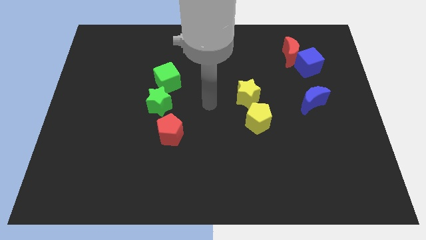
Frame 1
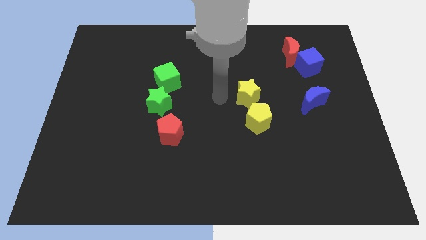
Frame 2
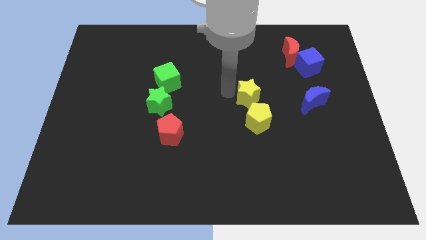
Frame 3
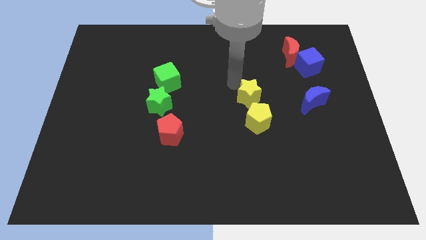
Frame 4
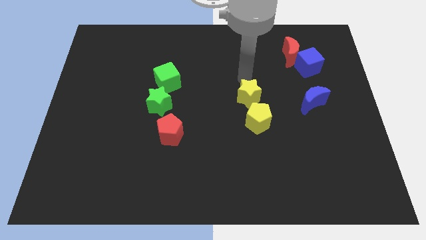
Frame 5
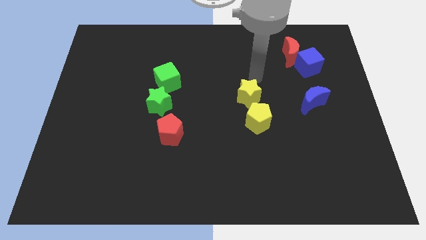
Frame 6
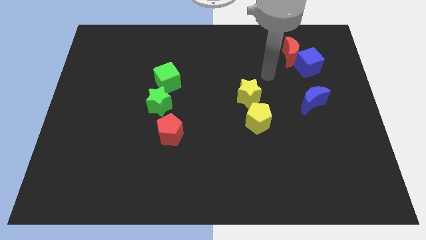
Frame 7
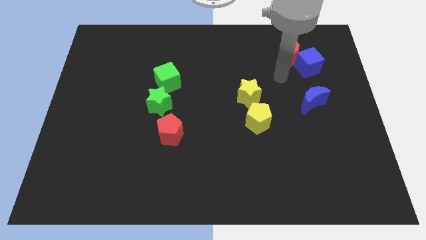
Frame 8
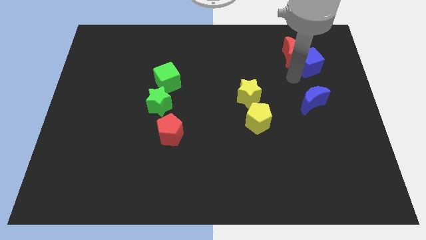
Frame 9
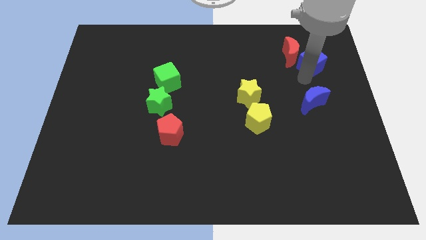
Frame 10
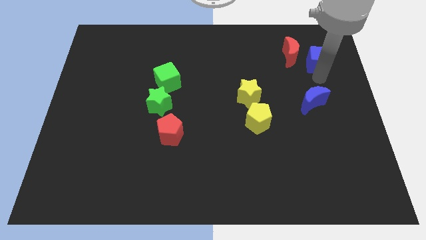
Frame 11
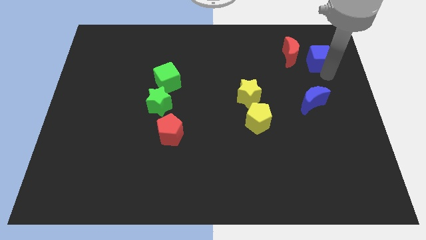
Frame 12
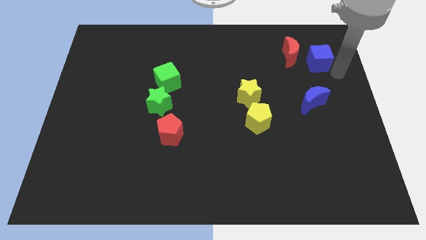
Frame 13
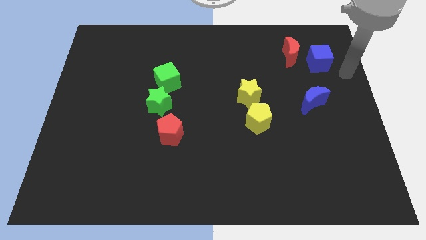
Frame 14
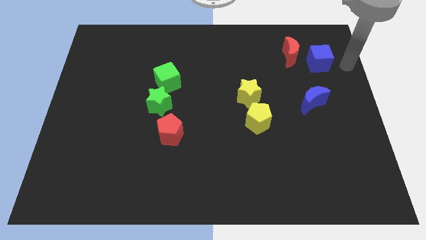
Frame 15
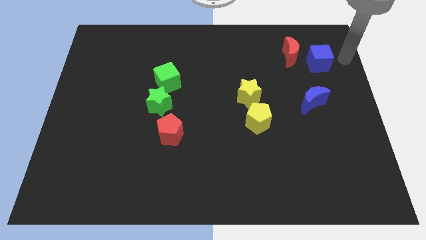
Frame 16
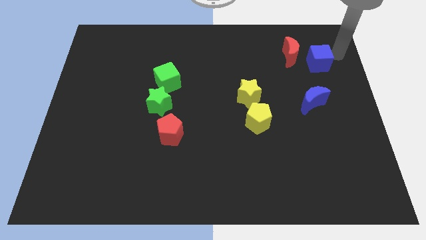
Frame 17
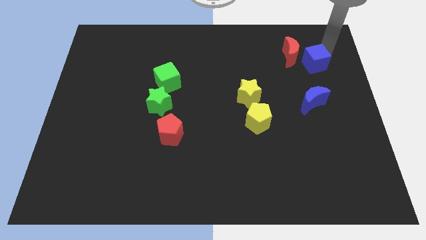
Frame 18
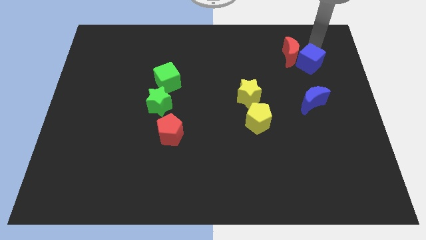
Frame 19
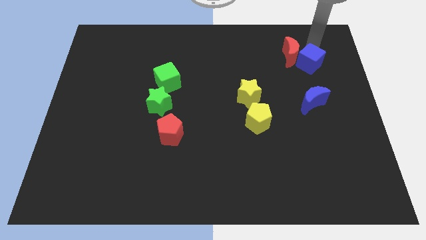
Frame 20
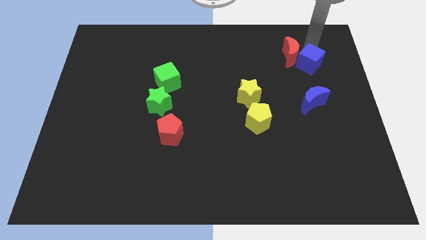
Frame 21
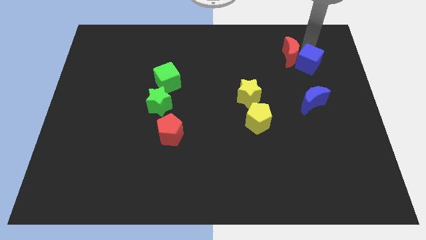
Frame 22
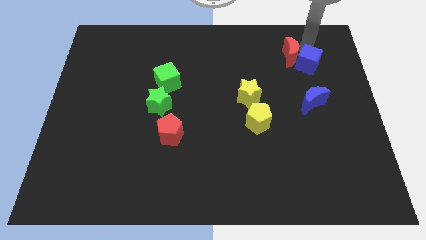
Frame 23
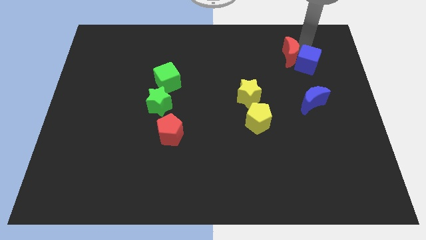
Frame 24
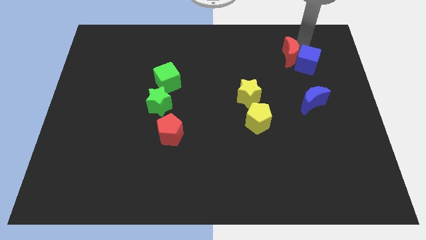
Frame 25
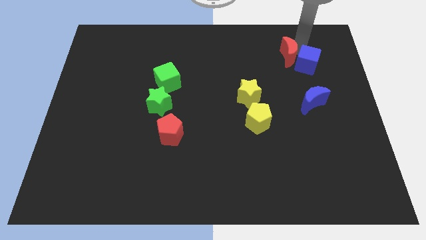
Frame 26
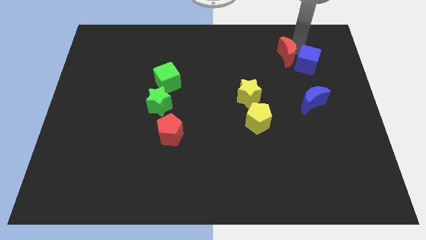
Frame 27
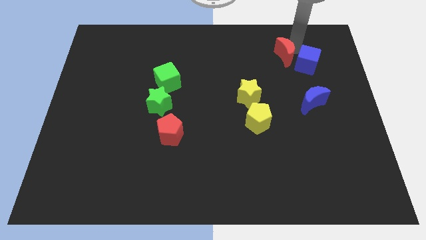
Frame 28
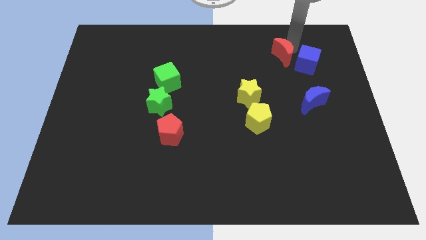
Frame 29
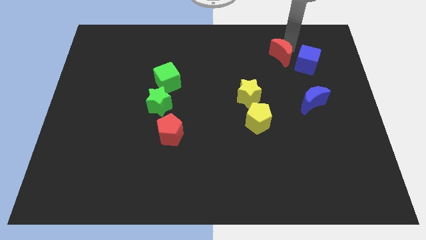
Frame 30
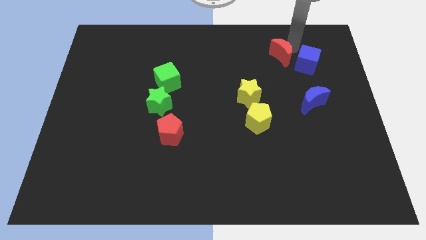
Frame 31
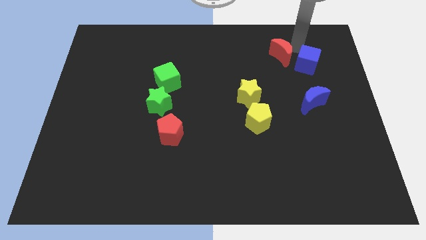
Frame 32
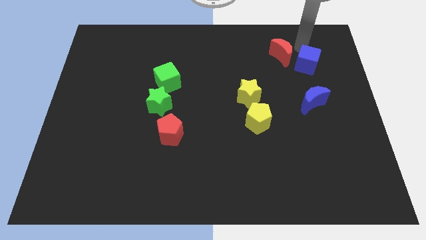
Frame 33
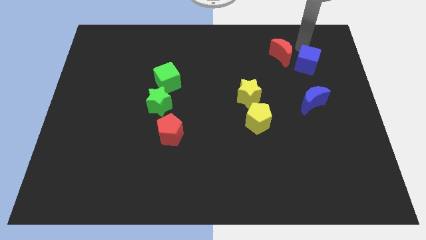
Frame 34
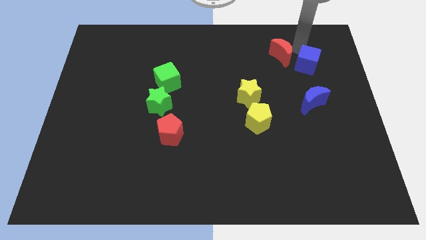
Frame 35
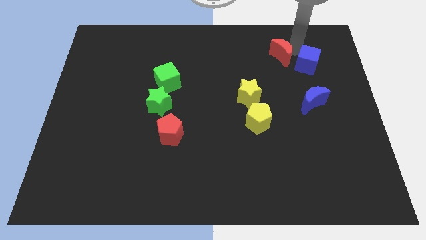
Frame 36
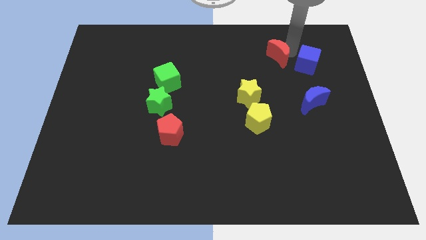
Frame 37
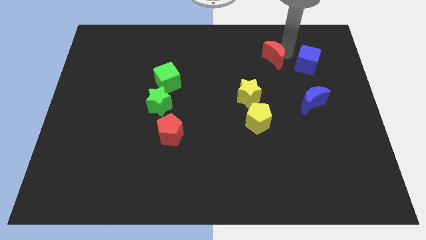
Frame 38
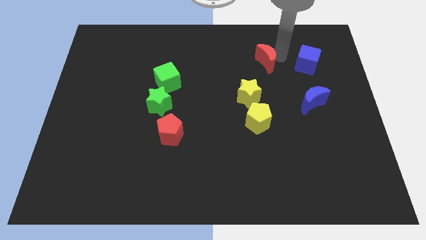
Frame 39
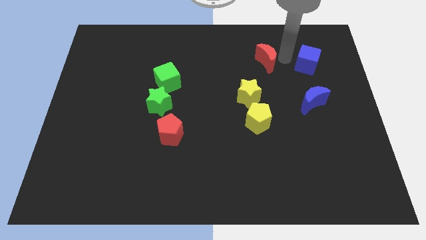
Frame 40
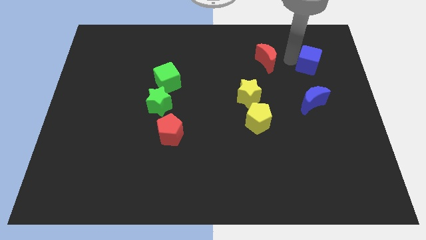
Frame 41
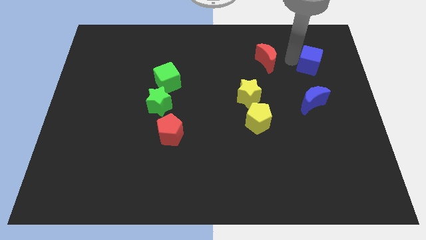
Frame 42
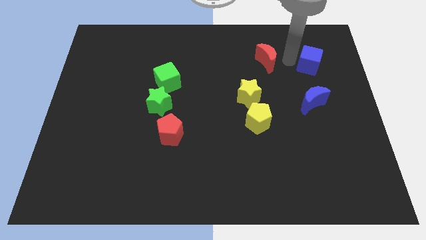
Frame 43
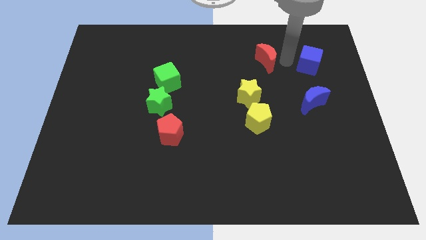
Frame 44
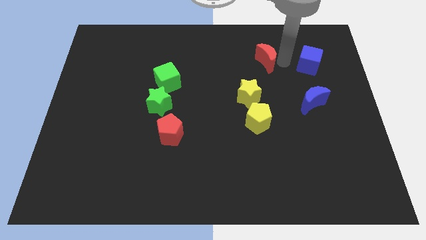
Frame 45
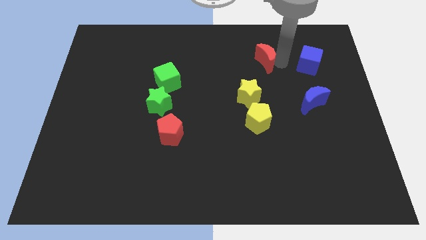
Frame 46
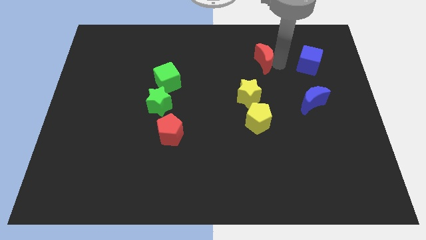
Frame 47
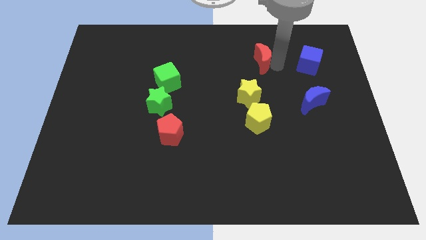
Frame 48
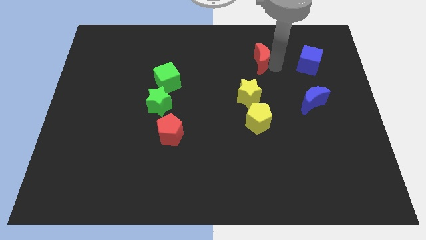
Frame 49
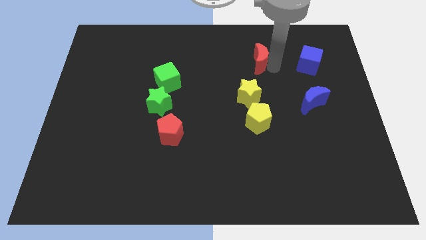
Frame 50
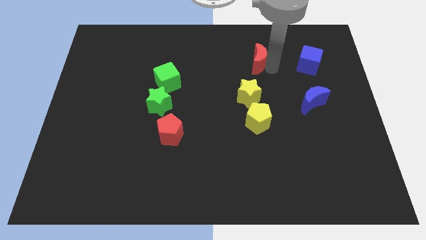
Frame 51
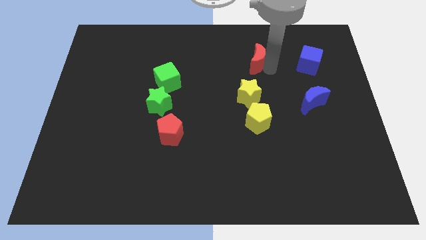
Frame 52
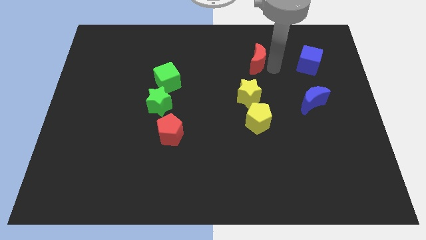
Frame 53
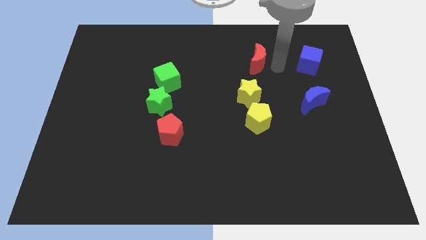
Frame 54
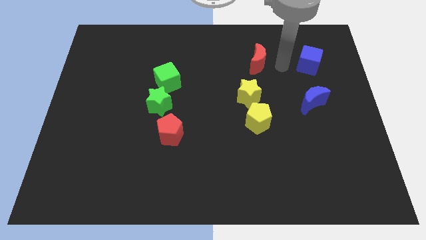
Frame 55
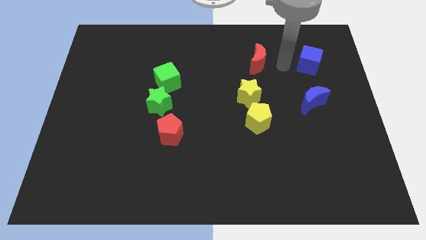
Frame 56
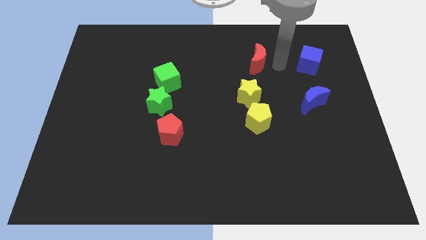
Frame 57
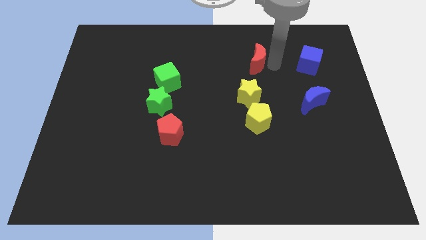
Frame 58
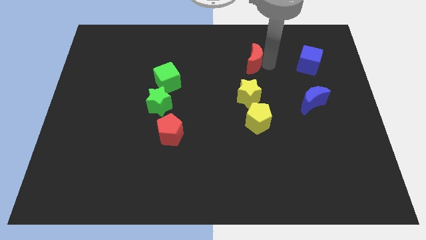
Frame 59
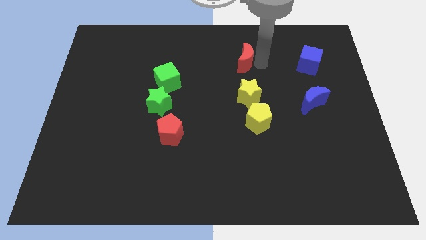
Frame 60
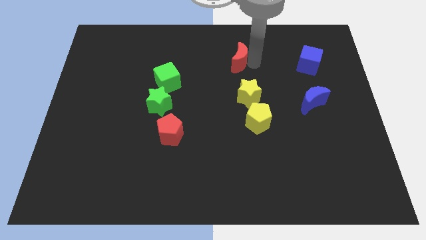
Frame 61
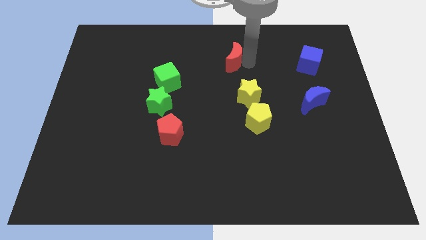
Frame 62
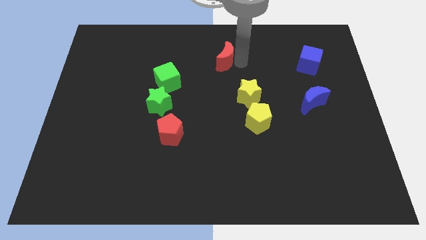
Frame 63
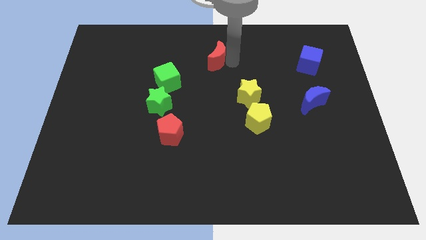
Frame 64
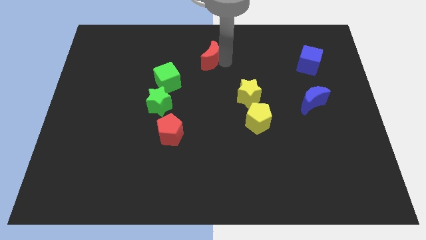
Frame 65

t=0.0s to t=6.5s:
slide the red moon to the left

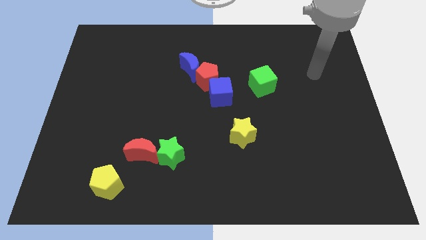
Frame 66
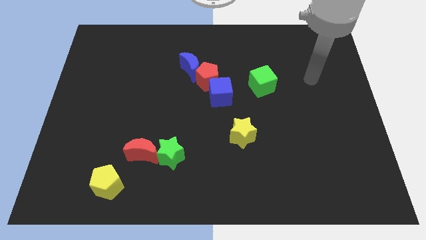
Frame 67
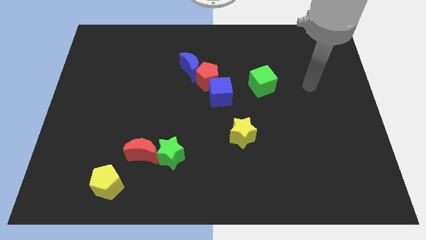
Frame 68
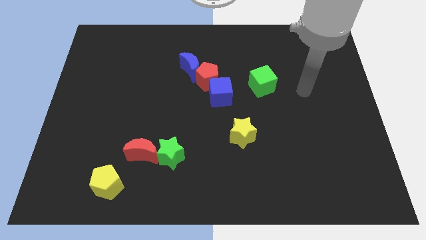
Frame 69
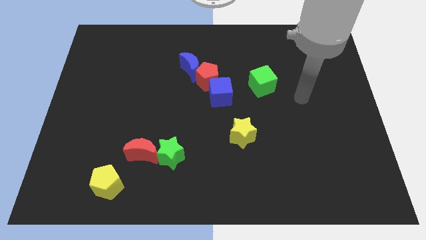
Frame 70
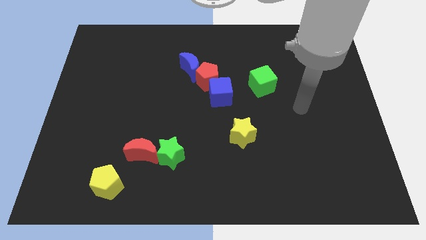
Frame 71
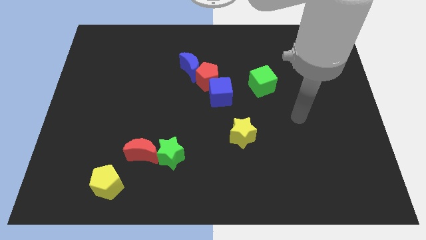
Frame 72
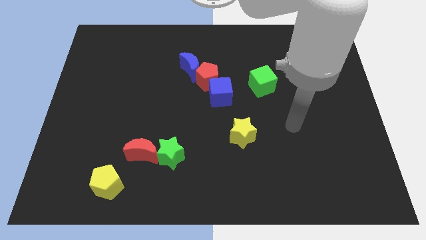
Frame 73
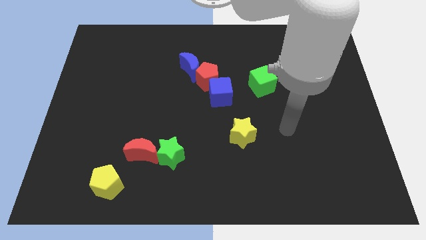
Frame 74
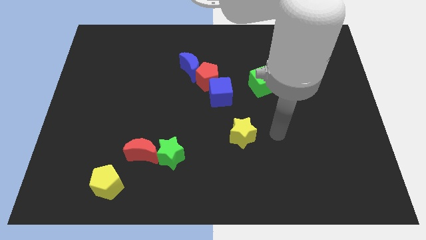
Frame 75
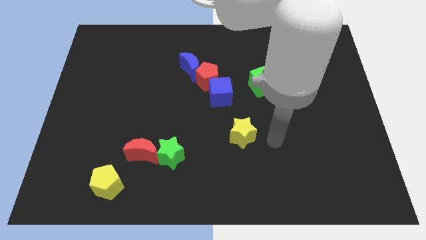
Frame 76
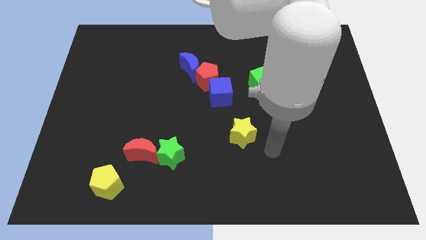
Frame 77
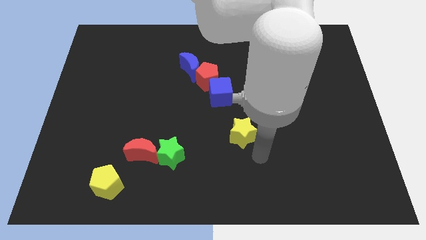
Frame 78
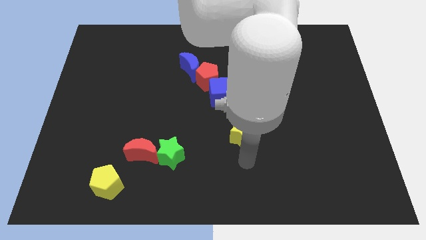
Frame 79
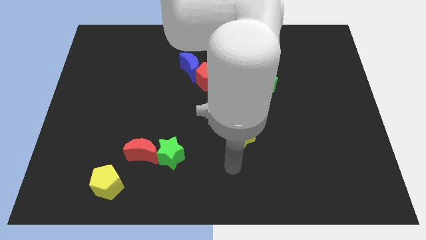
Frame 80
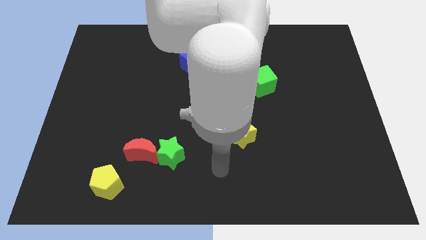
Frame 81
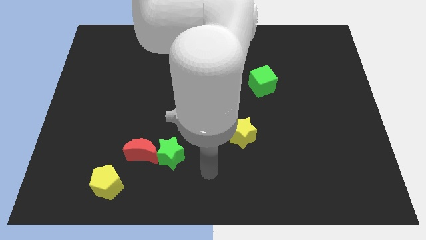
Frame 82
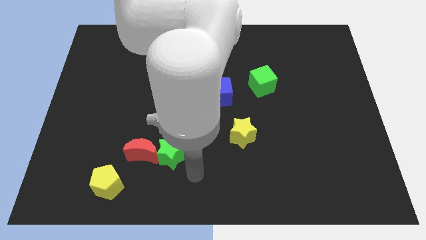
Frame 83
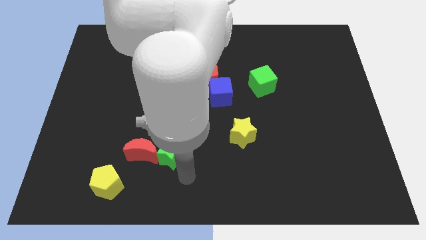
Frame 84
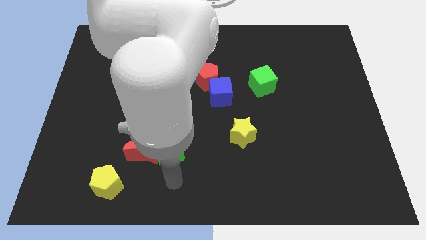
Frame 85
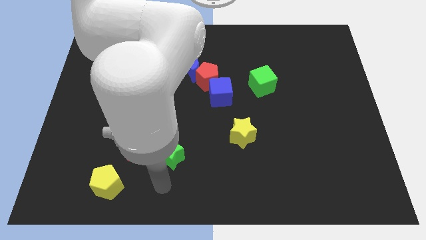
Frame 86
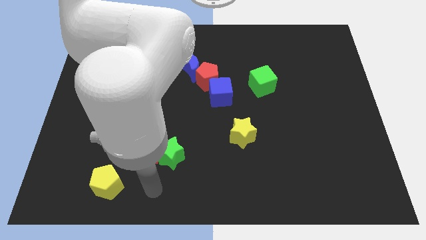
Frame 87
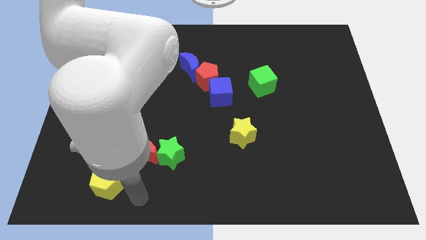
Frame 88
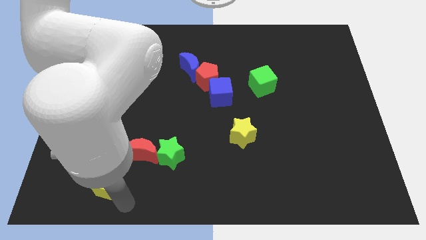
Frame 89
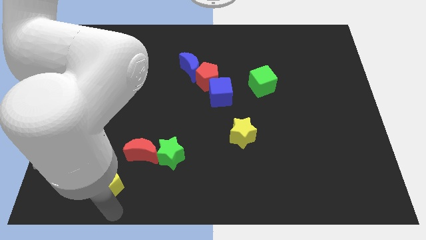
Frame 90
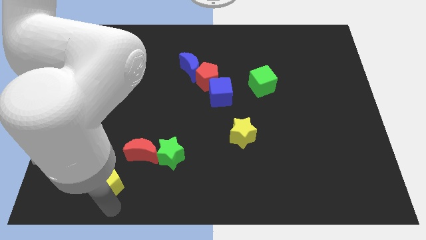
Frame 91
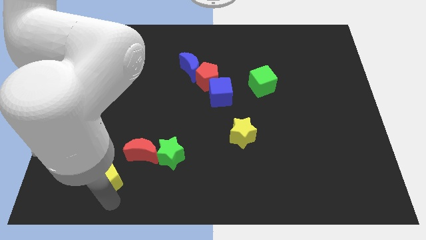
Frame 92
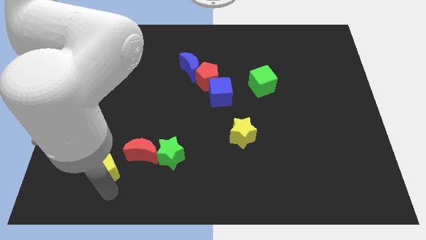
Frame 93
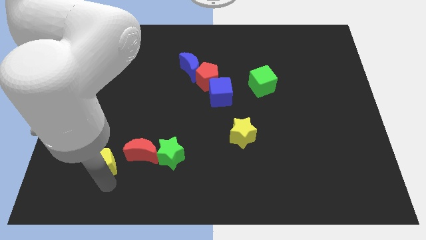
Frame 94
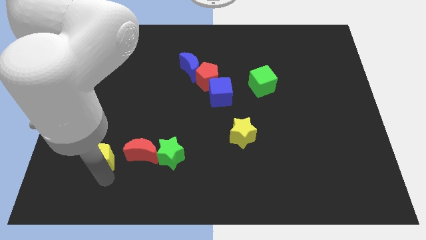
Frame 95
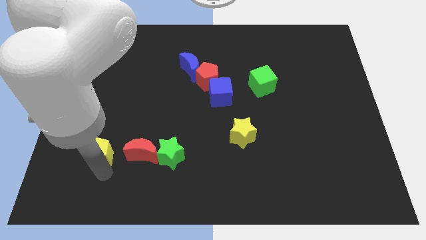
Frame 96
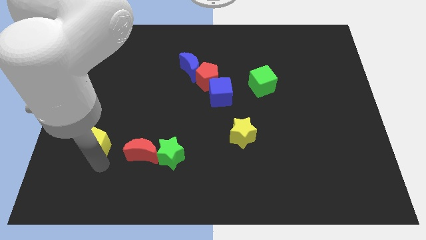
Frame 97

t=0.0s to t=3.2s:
slide the yellow pentagon a little up
